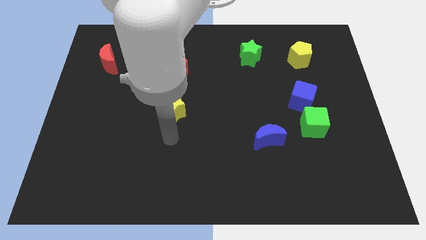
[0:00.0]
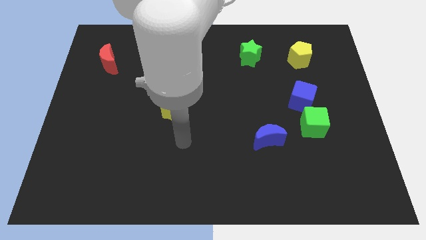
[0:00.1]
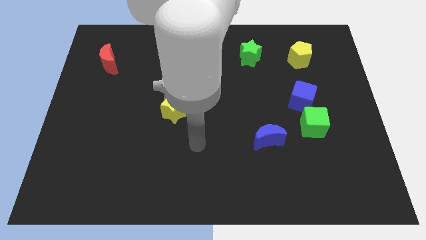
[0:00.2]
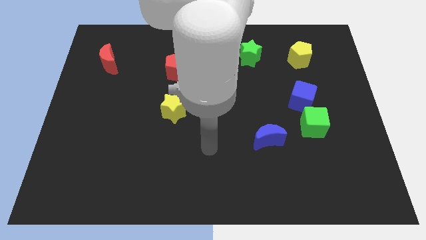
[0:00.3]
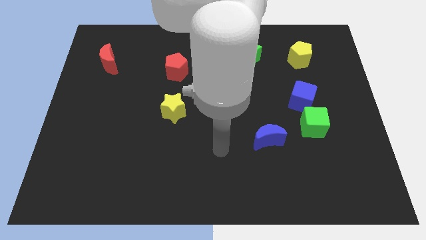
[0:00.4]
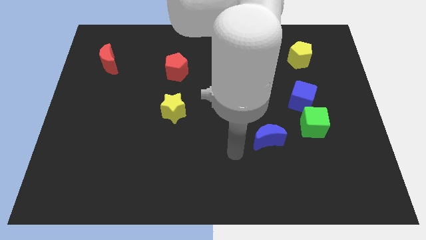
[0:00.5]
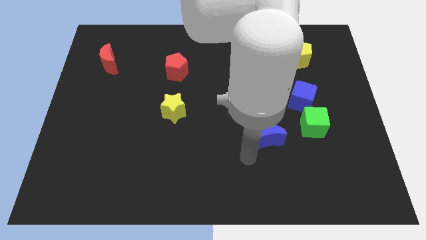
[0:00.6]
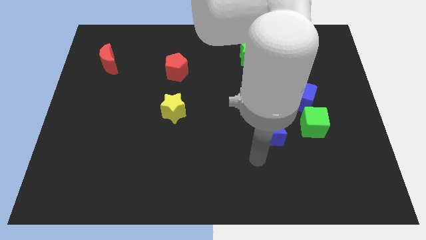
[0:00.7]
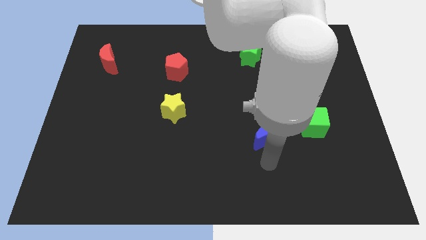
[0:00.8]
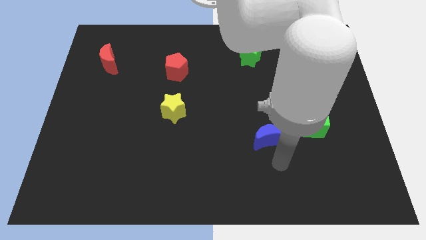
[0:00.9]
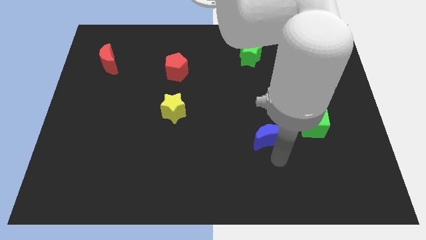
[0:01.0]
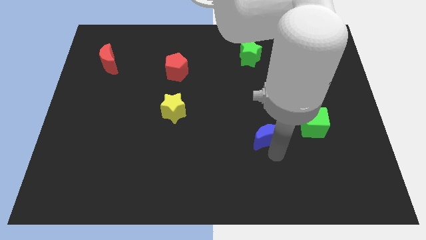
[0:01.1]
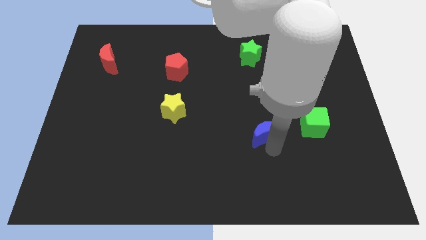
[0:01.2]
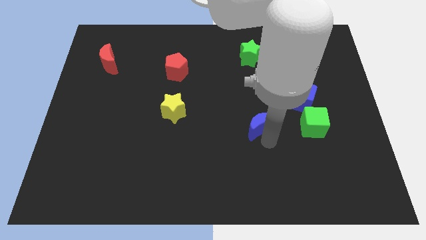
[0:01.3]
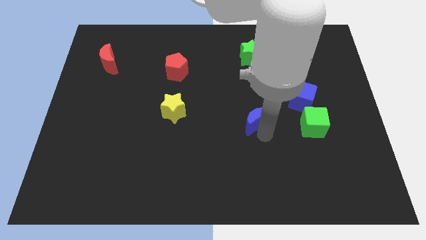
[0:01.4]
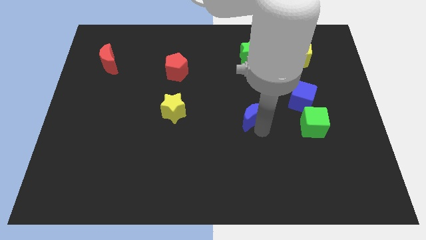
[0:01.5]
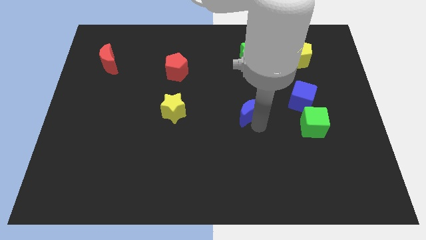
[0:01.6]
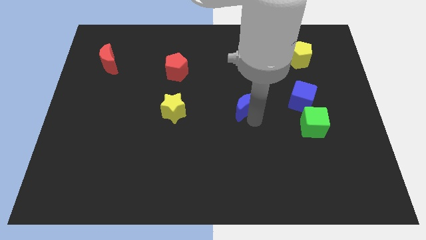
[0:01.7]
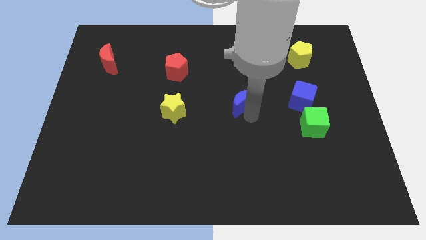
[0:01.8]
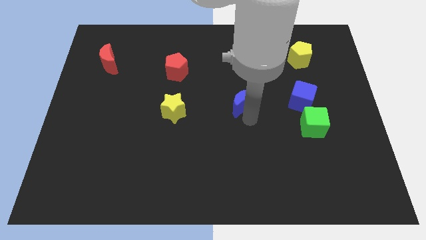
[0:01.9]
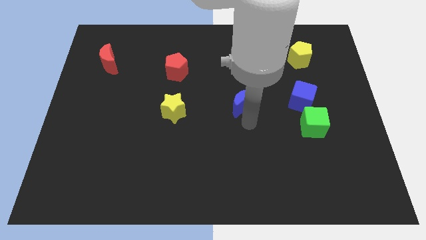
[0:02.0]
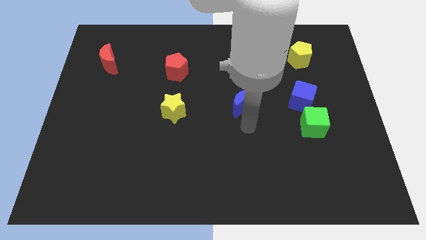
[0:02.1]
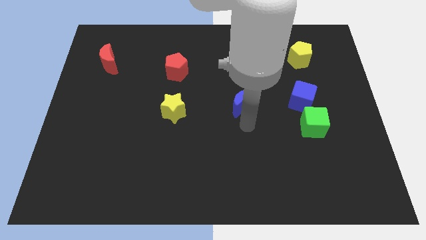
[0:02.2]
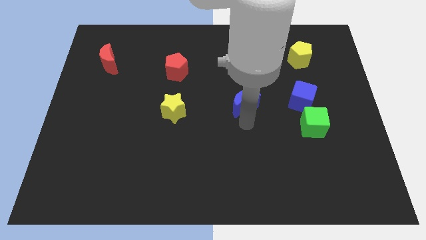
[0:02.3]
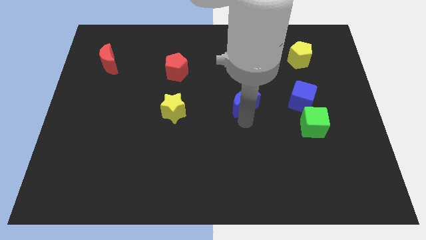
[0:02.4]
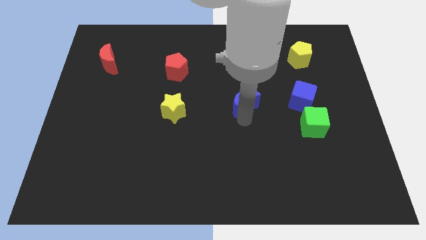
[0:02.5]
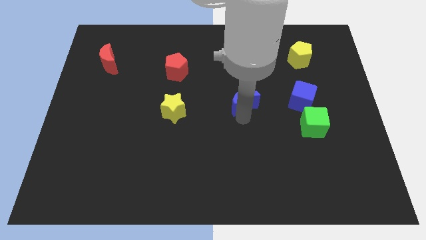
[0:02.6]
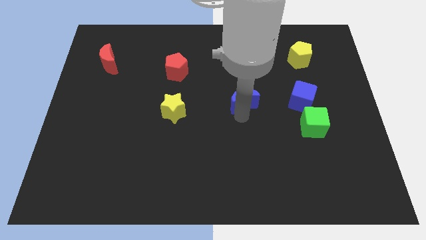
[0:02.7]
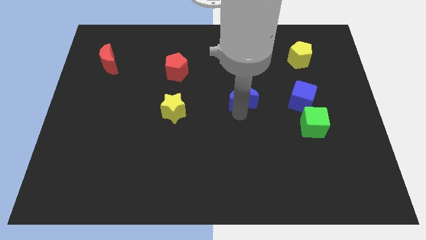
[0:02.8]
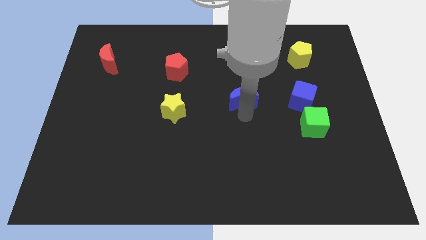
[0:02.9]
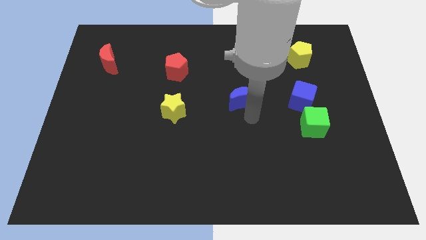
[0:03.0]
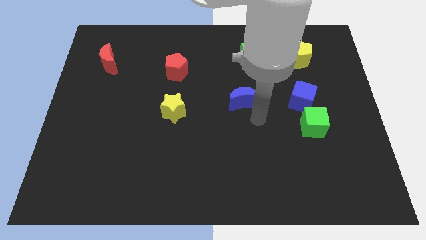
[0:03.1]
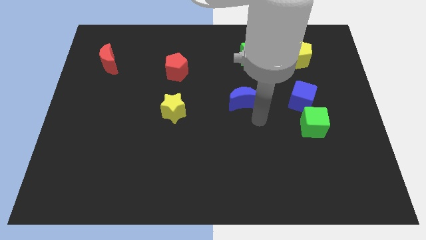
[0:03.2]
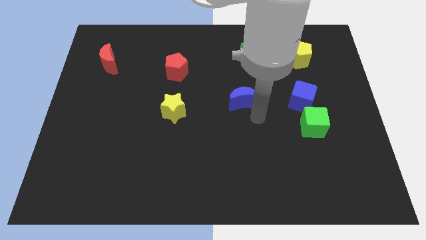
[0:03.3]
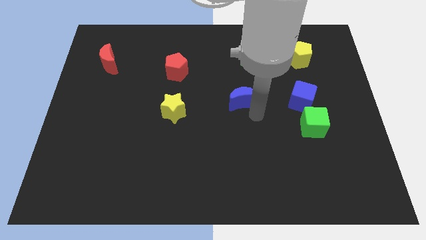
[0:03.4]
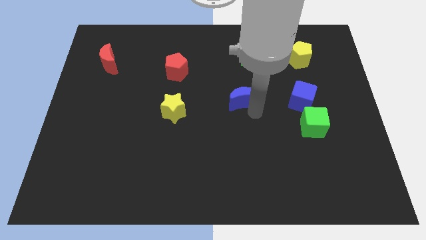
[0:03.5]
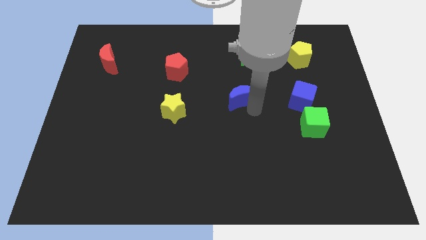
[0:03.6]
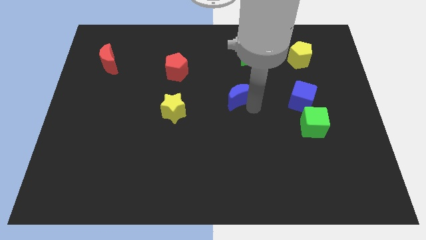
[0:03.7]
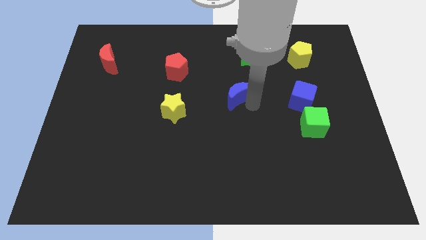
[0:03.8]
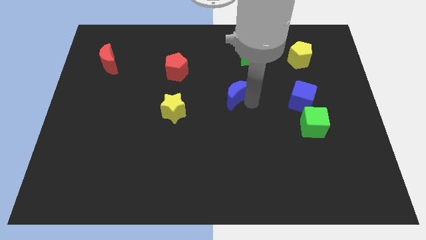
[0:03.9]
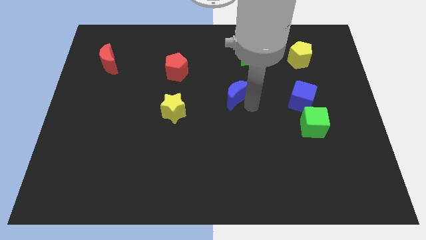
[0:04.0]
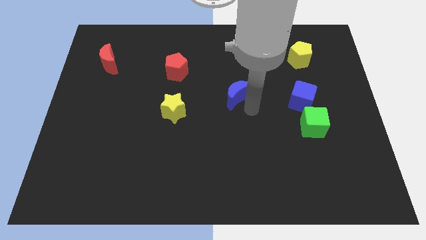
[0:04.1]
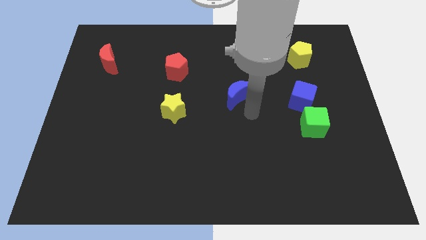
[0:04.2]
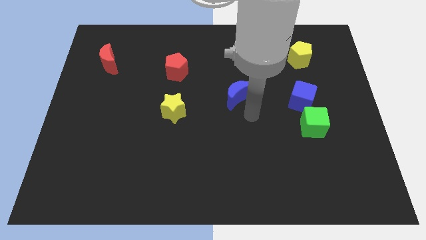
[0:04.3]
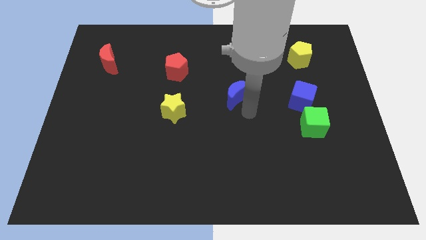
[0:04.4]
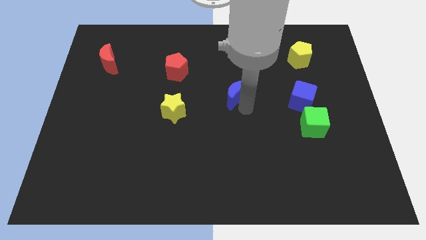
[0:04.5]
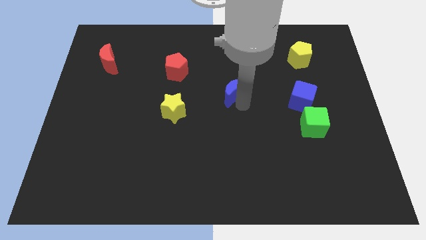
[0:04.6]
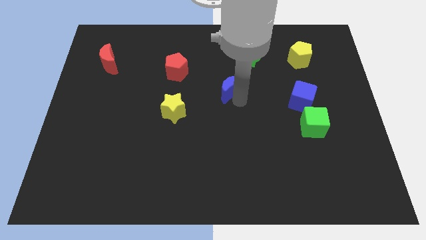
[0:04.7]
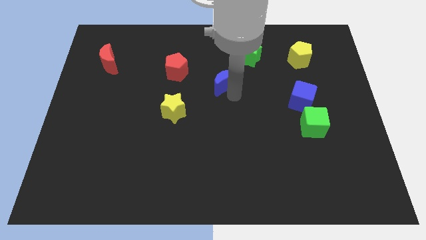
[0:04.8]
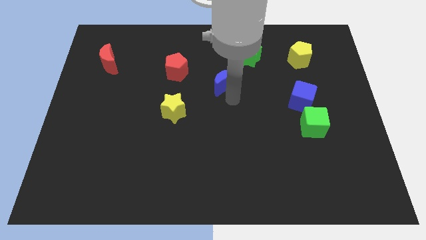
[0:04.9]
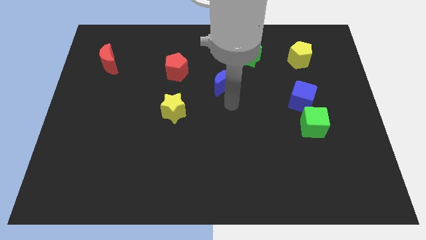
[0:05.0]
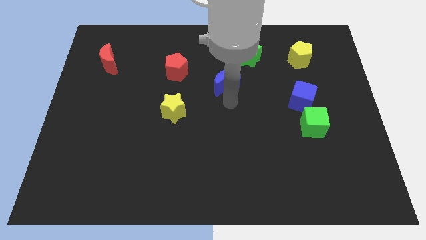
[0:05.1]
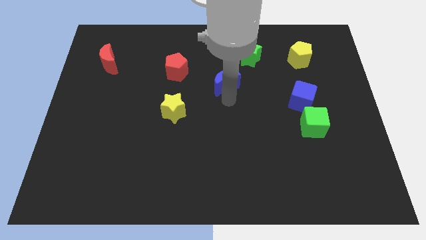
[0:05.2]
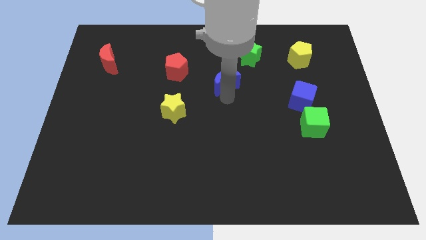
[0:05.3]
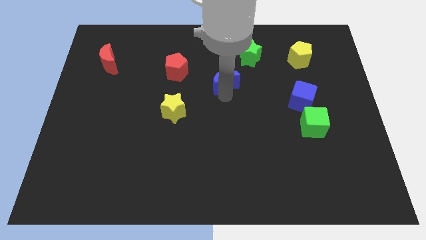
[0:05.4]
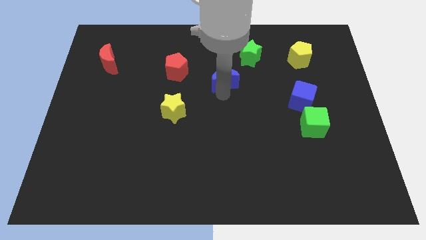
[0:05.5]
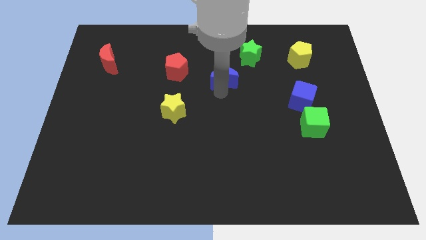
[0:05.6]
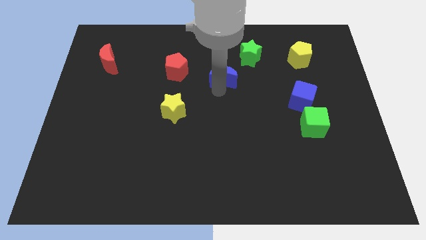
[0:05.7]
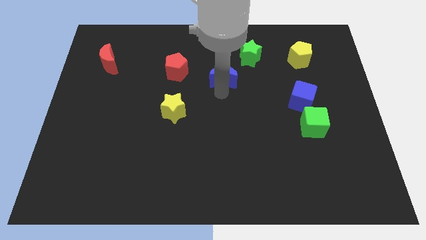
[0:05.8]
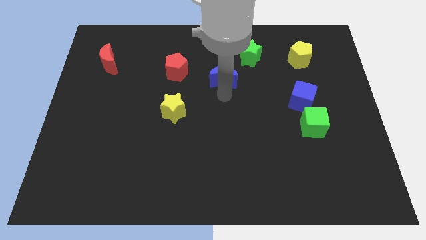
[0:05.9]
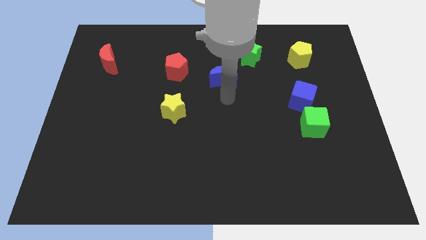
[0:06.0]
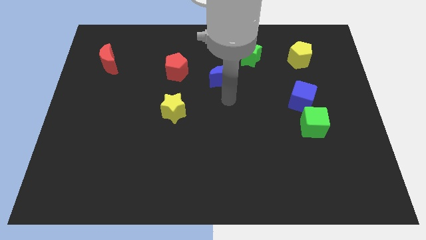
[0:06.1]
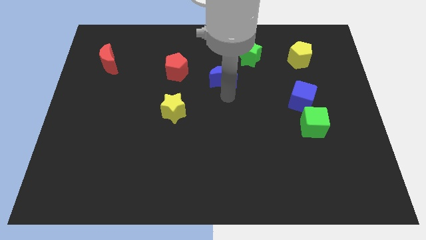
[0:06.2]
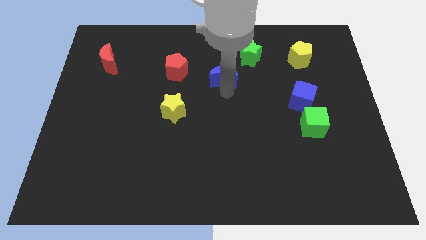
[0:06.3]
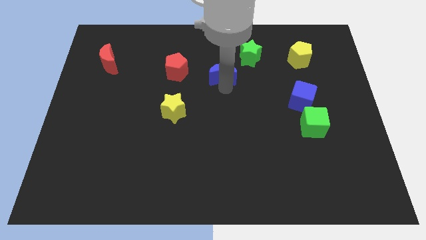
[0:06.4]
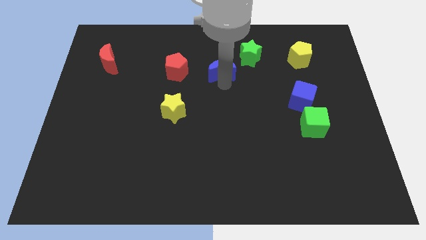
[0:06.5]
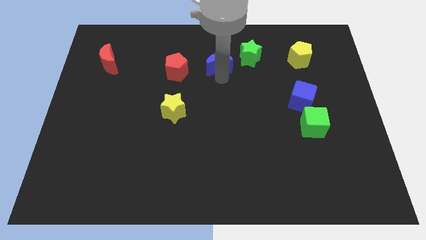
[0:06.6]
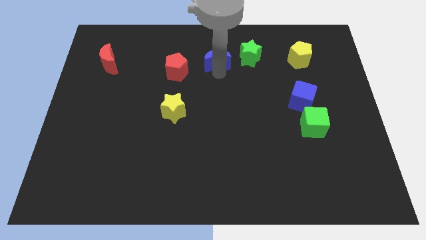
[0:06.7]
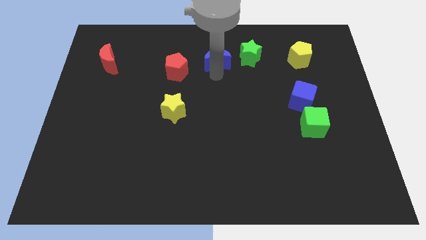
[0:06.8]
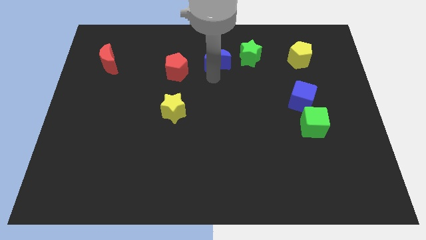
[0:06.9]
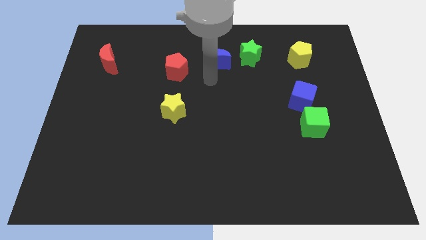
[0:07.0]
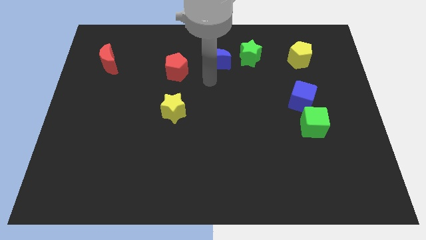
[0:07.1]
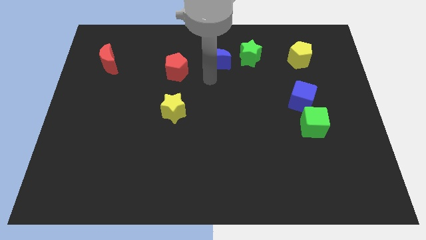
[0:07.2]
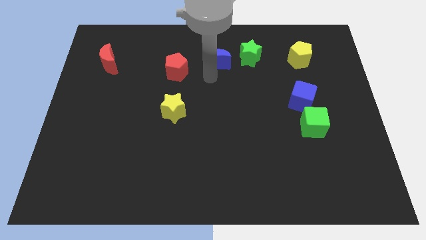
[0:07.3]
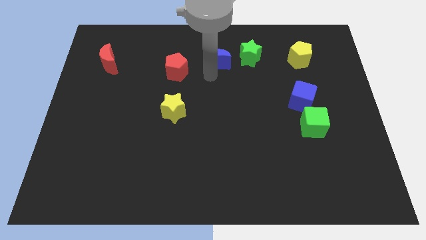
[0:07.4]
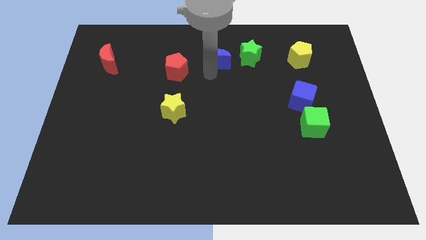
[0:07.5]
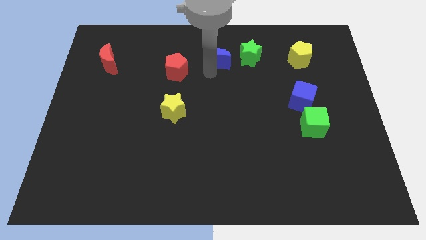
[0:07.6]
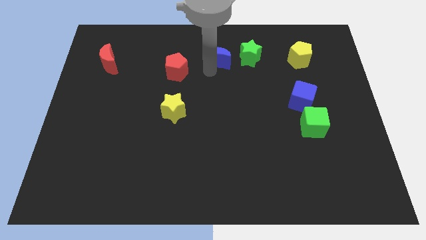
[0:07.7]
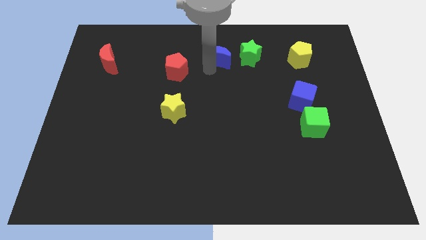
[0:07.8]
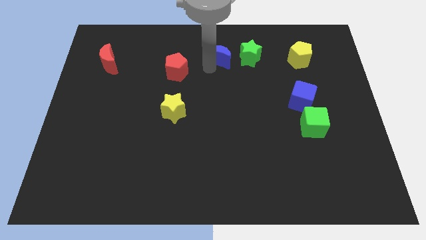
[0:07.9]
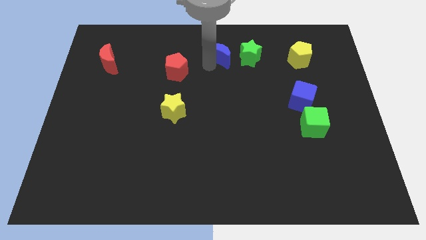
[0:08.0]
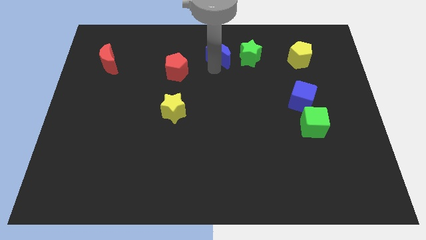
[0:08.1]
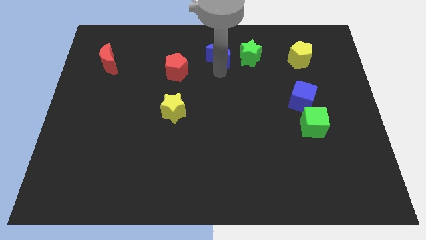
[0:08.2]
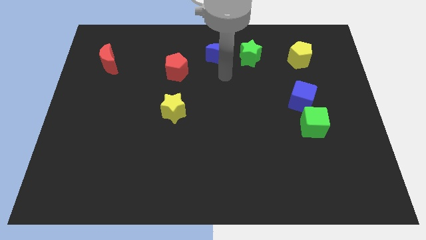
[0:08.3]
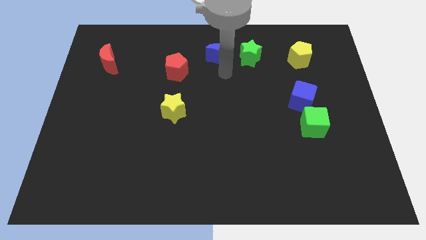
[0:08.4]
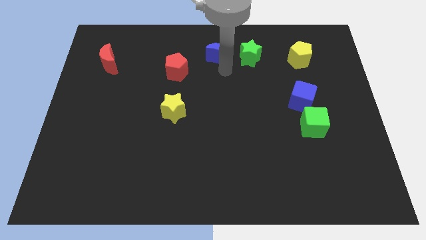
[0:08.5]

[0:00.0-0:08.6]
push the blue moon to the top
